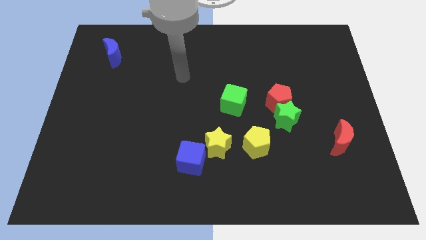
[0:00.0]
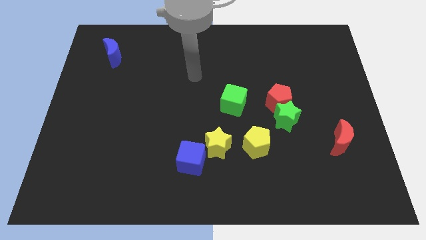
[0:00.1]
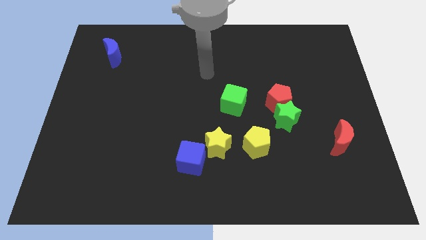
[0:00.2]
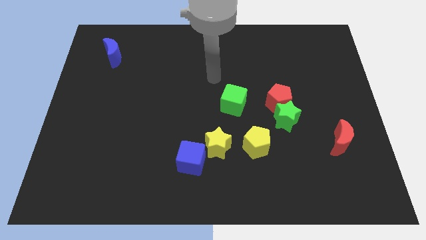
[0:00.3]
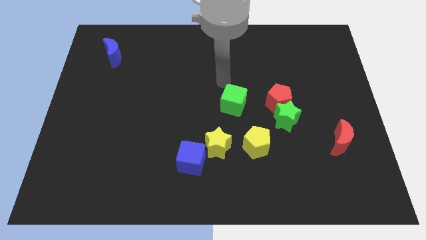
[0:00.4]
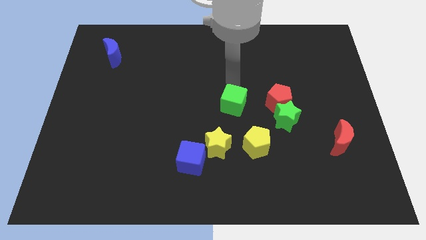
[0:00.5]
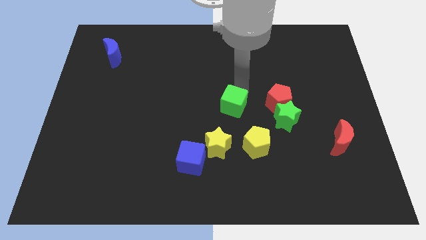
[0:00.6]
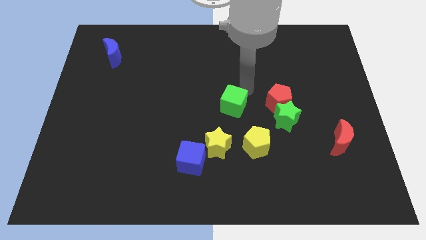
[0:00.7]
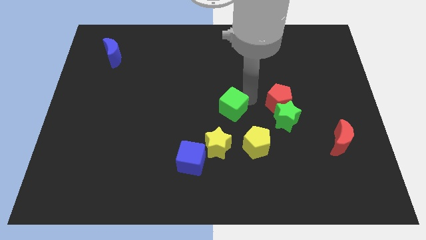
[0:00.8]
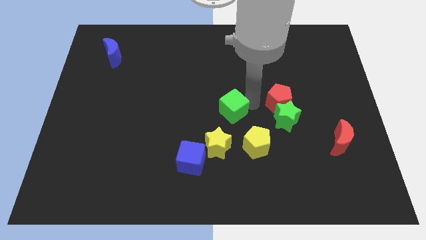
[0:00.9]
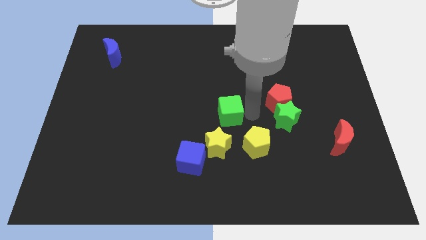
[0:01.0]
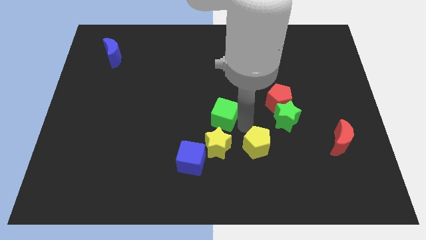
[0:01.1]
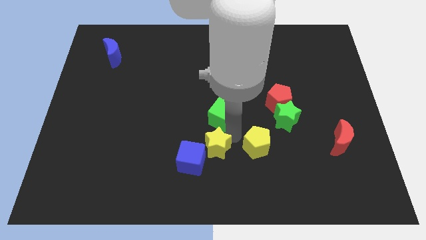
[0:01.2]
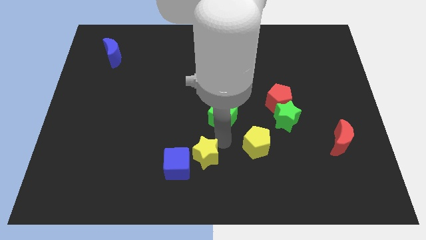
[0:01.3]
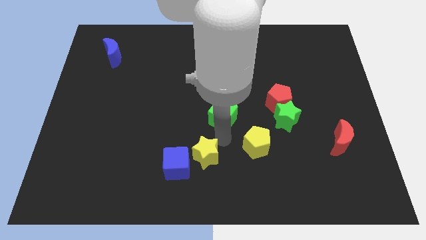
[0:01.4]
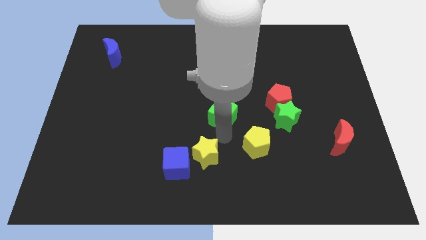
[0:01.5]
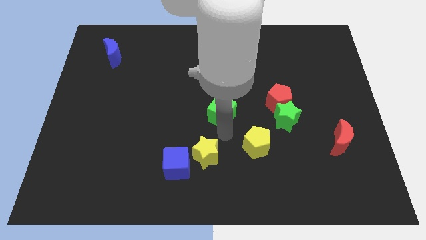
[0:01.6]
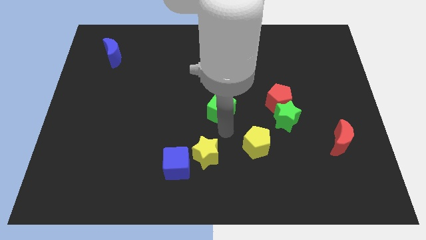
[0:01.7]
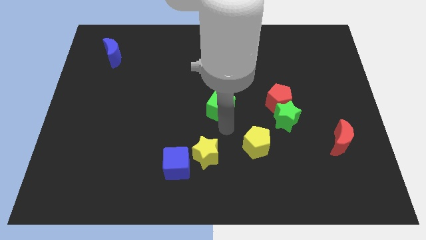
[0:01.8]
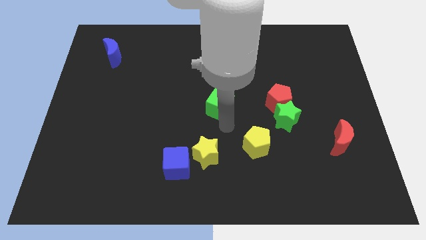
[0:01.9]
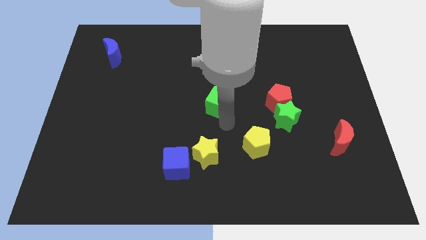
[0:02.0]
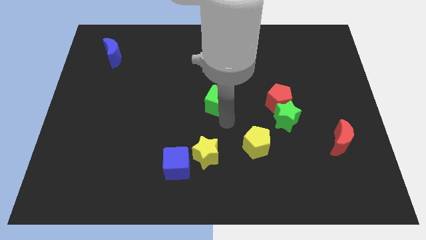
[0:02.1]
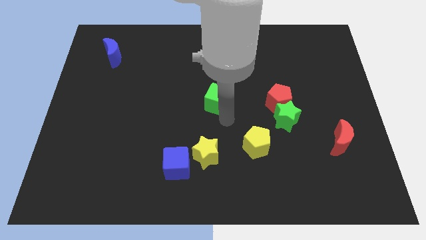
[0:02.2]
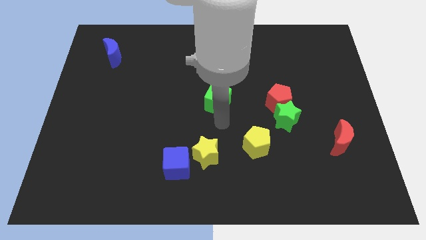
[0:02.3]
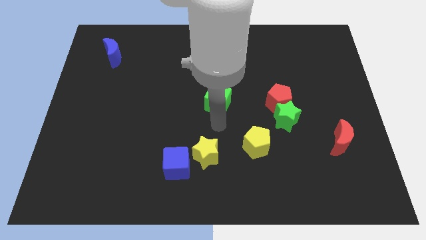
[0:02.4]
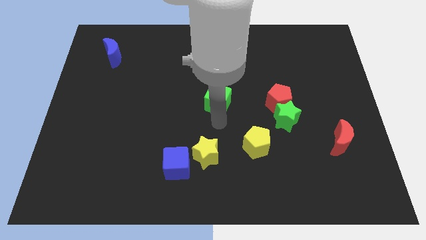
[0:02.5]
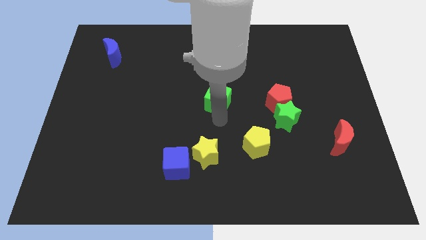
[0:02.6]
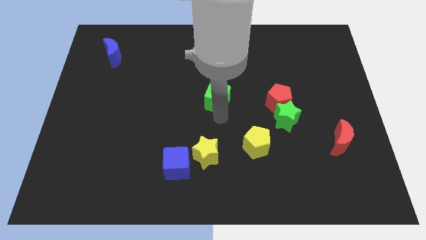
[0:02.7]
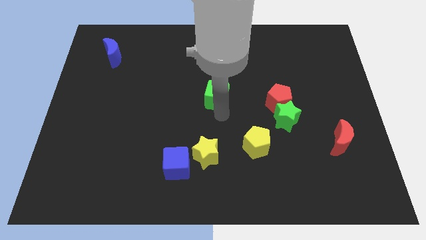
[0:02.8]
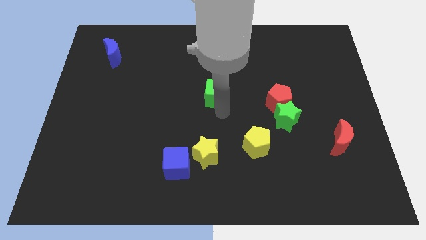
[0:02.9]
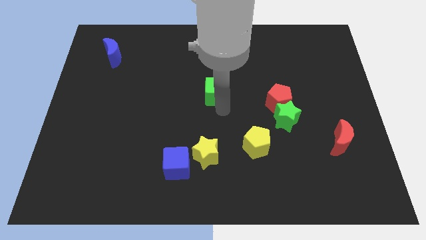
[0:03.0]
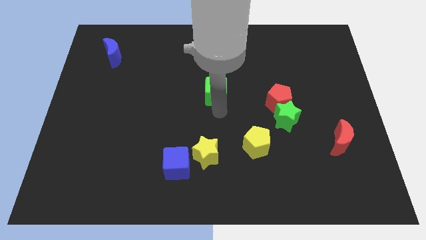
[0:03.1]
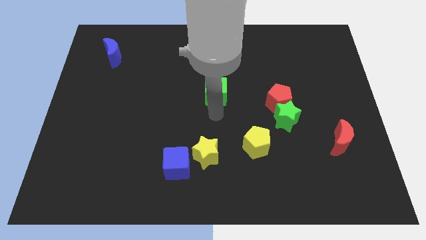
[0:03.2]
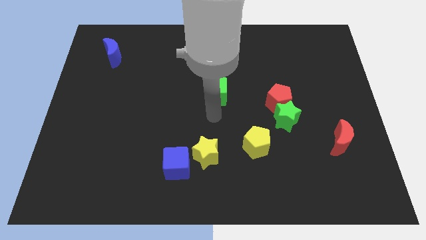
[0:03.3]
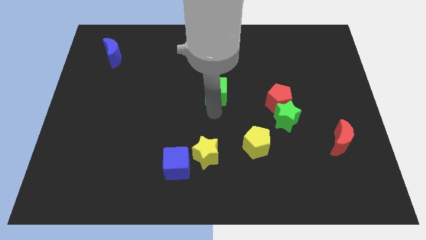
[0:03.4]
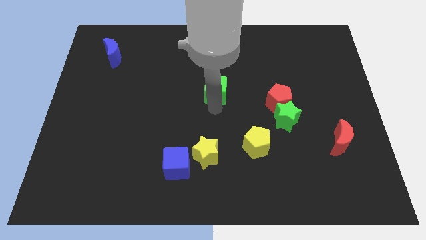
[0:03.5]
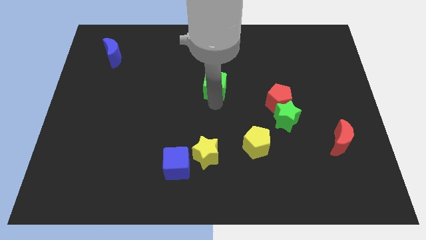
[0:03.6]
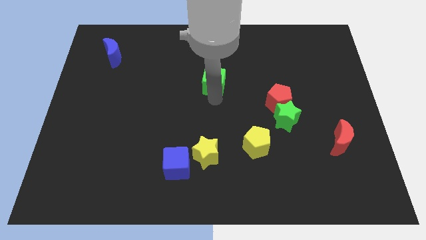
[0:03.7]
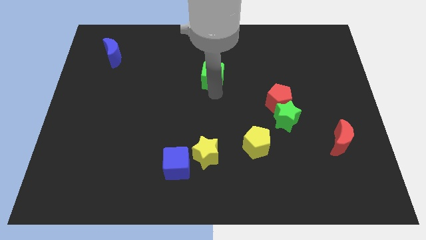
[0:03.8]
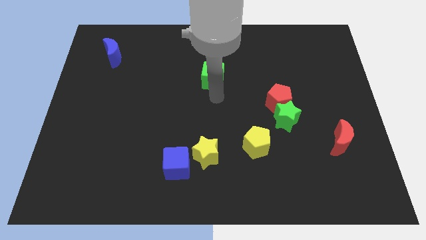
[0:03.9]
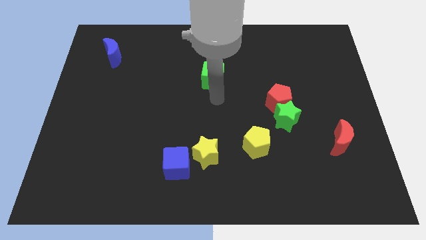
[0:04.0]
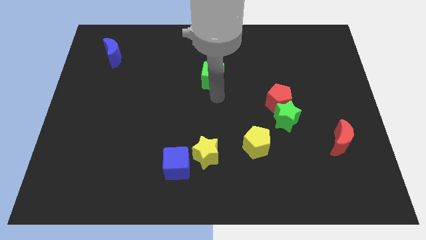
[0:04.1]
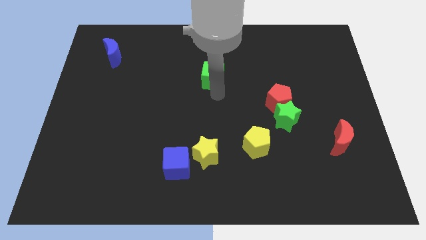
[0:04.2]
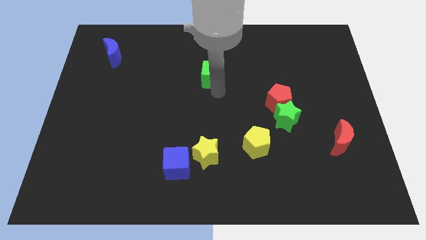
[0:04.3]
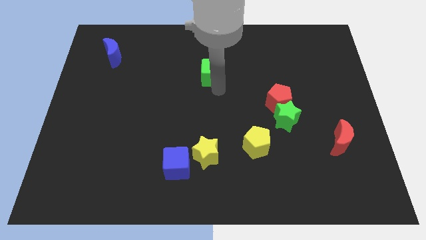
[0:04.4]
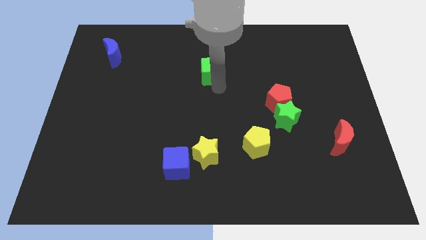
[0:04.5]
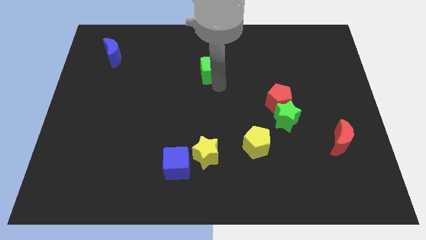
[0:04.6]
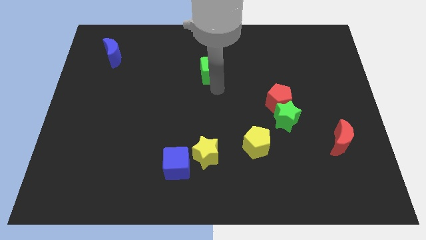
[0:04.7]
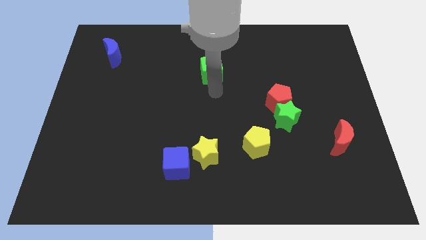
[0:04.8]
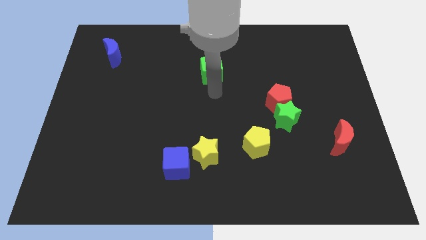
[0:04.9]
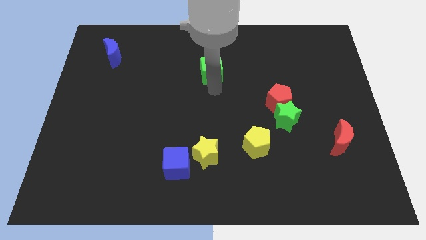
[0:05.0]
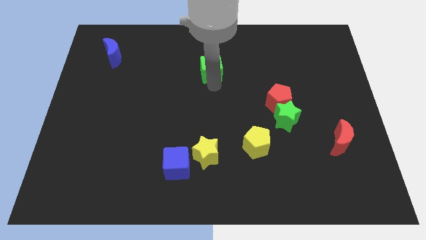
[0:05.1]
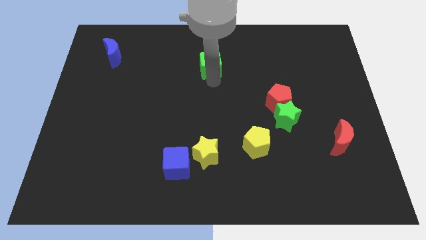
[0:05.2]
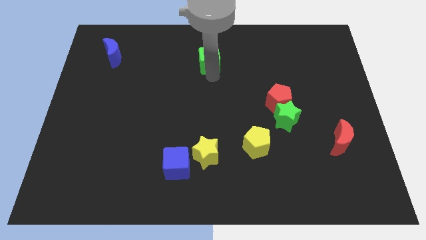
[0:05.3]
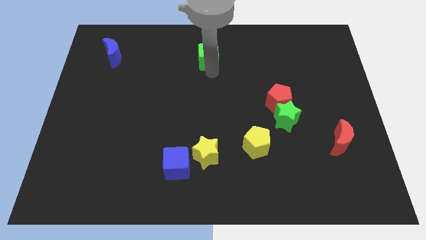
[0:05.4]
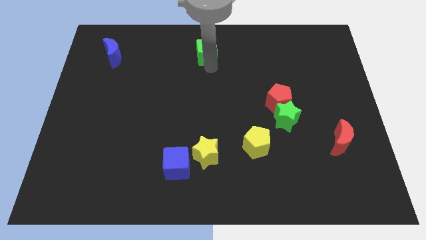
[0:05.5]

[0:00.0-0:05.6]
put the green cube to the top
